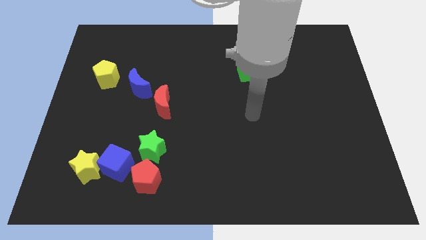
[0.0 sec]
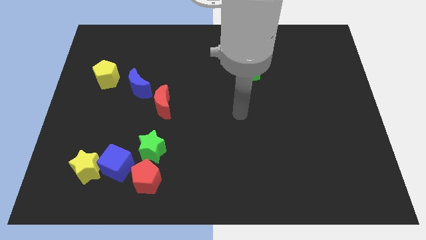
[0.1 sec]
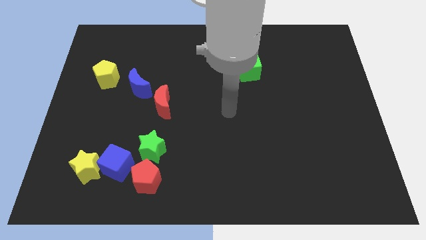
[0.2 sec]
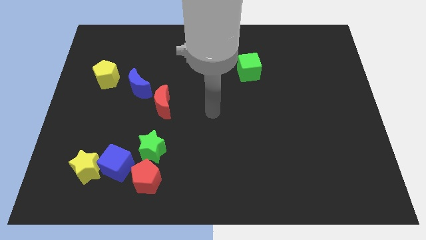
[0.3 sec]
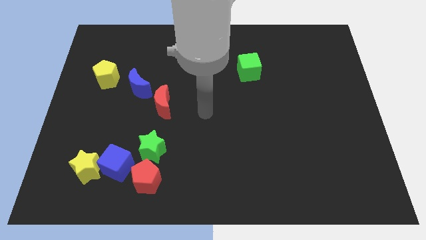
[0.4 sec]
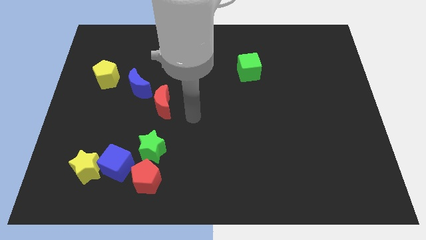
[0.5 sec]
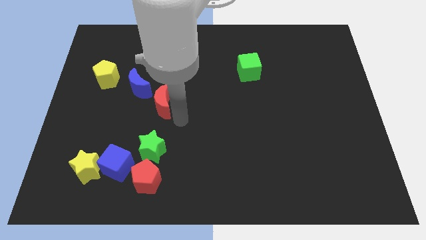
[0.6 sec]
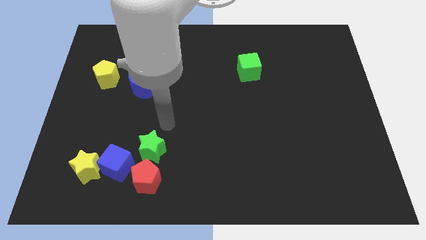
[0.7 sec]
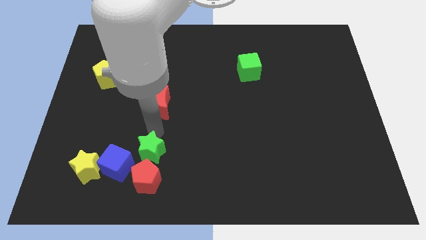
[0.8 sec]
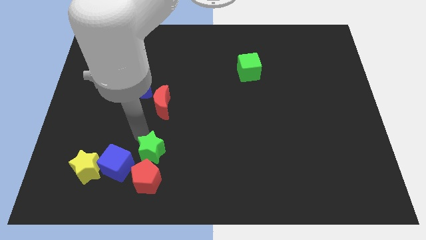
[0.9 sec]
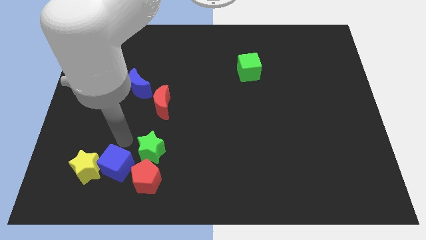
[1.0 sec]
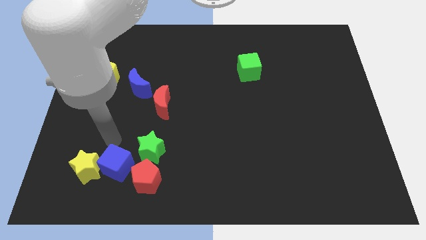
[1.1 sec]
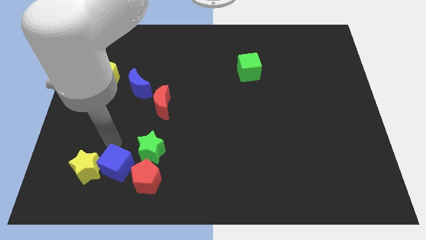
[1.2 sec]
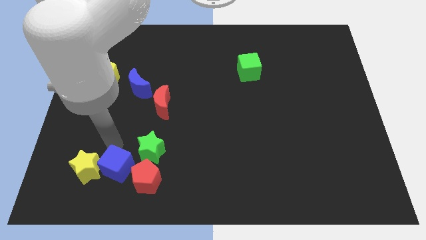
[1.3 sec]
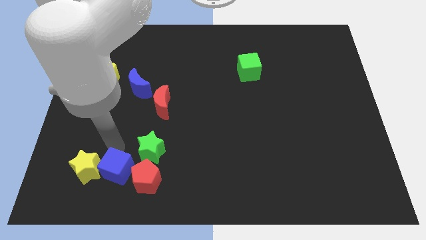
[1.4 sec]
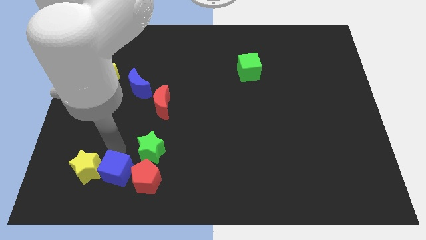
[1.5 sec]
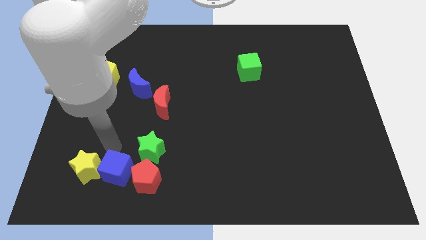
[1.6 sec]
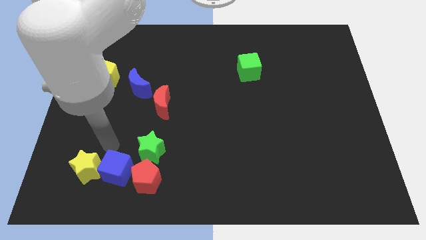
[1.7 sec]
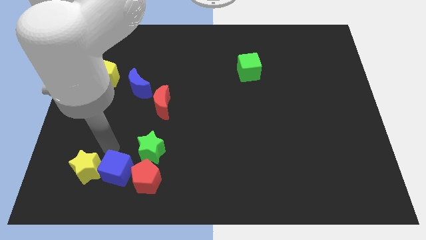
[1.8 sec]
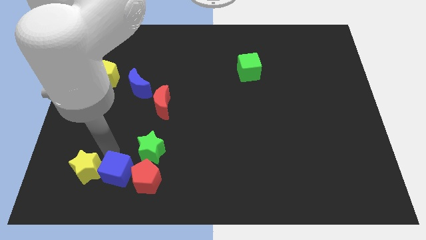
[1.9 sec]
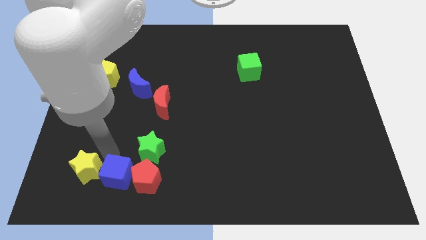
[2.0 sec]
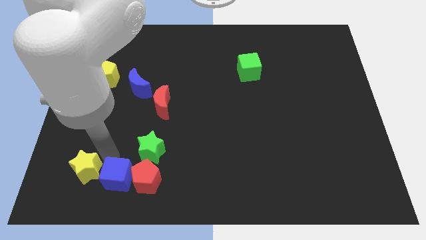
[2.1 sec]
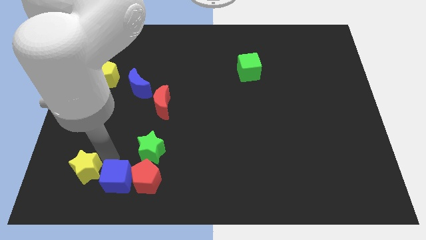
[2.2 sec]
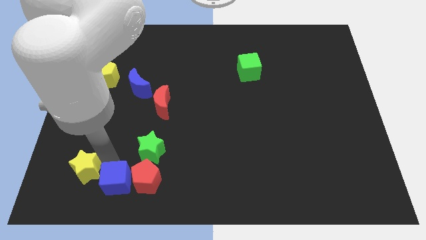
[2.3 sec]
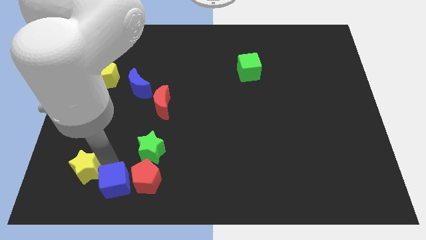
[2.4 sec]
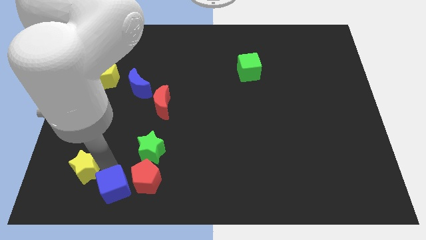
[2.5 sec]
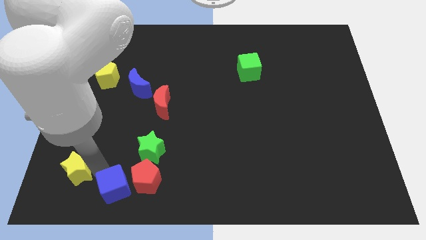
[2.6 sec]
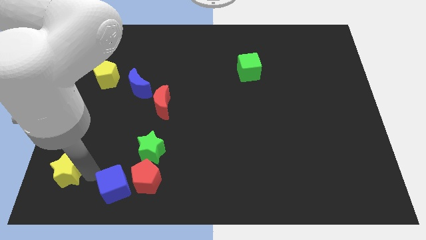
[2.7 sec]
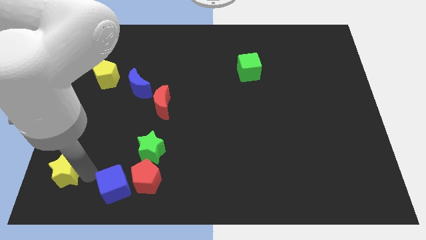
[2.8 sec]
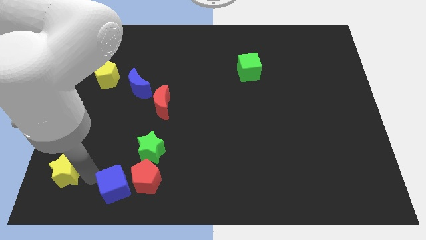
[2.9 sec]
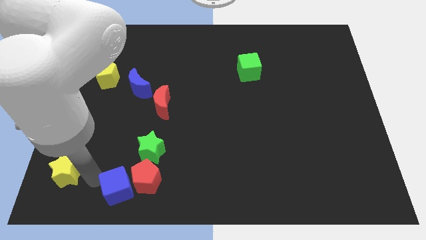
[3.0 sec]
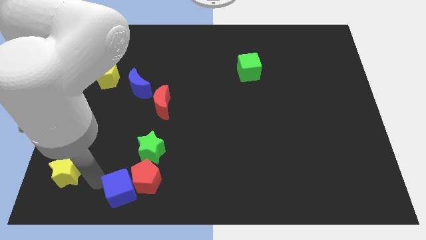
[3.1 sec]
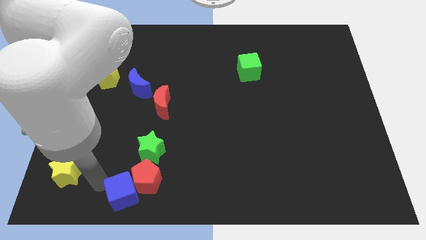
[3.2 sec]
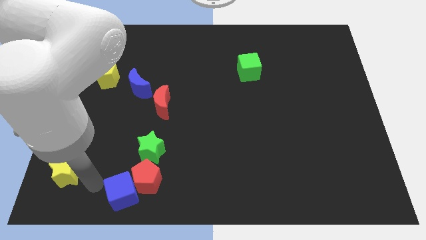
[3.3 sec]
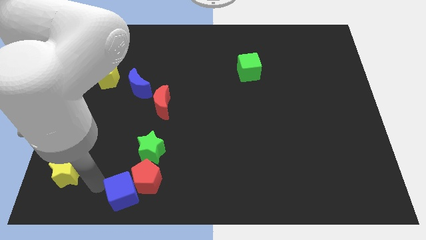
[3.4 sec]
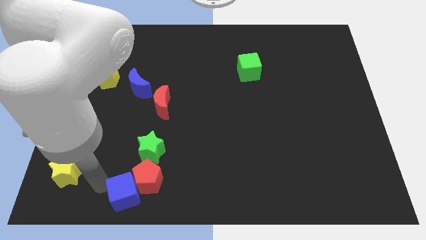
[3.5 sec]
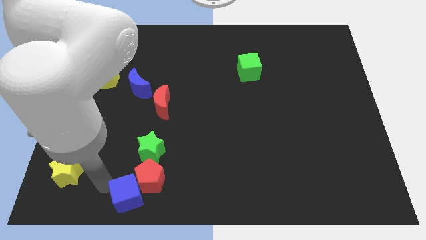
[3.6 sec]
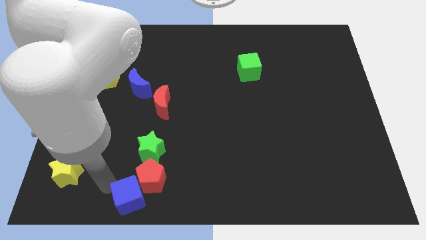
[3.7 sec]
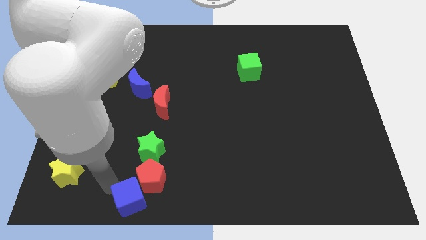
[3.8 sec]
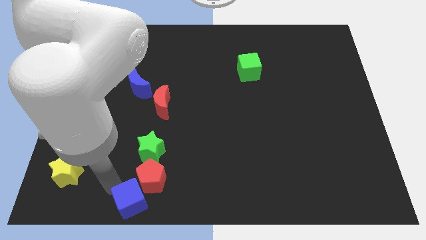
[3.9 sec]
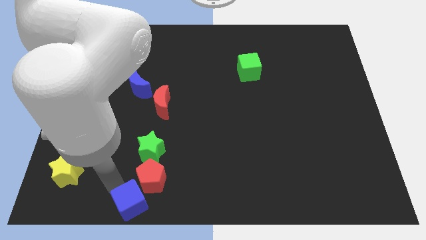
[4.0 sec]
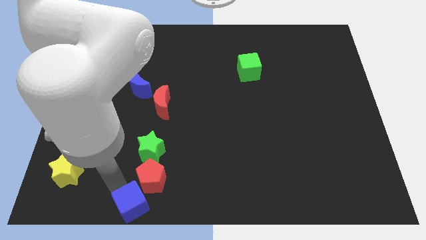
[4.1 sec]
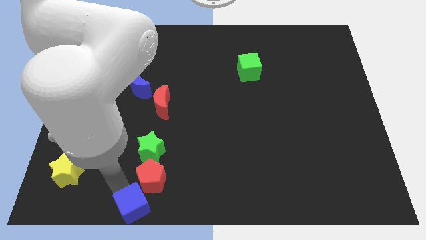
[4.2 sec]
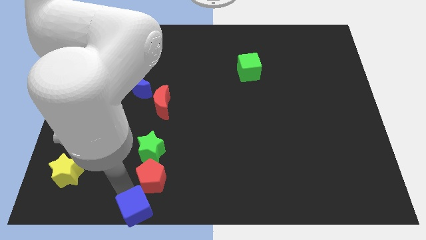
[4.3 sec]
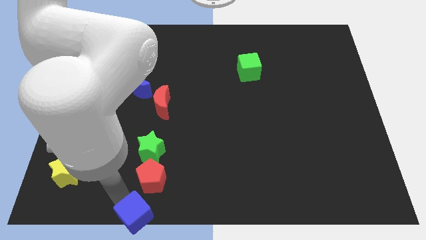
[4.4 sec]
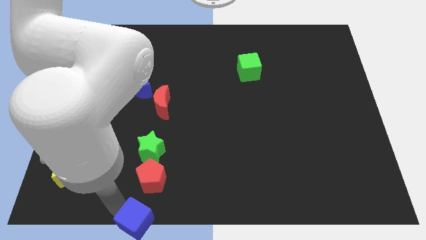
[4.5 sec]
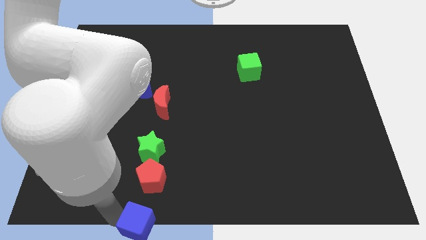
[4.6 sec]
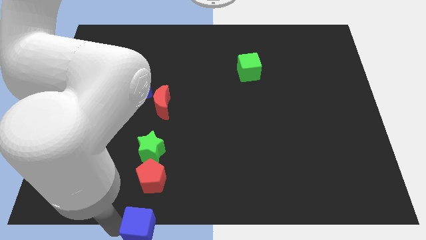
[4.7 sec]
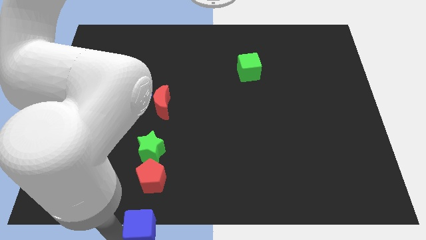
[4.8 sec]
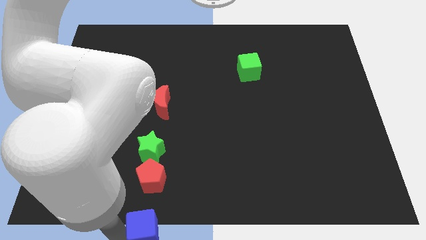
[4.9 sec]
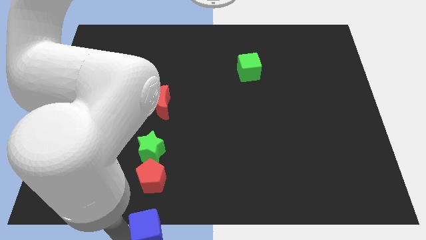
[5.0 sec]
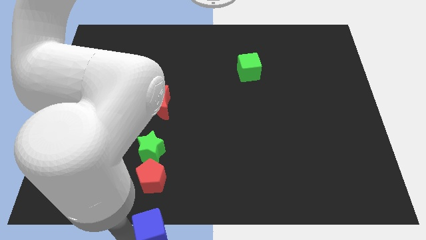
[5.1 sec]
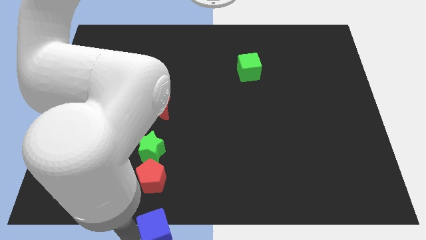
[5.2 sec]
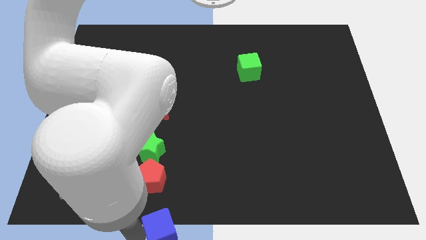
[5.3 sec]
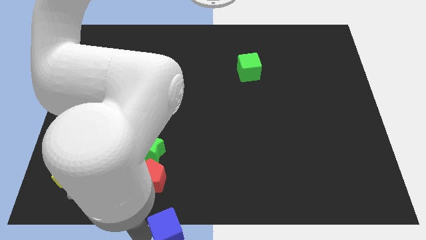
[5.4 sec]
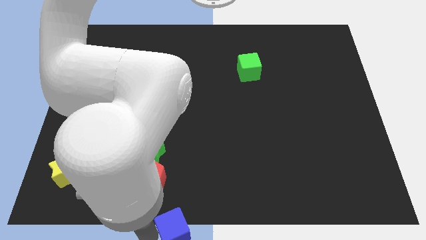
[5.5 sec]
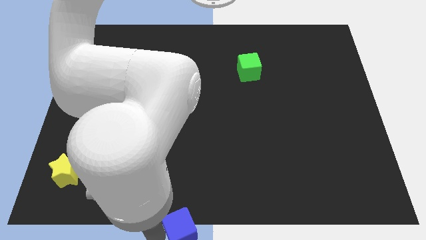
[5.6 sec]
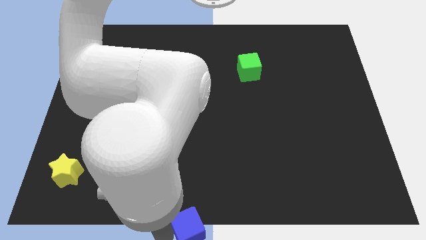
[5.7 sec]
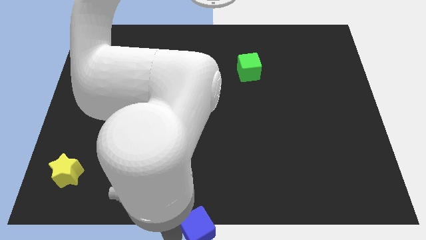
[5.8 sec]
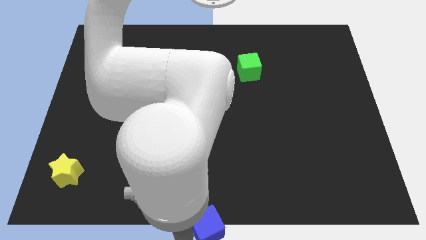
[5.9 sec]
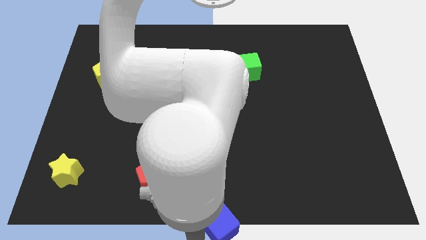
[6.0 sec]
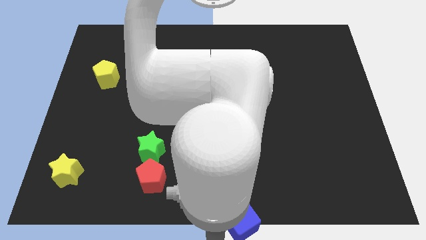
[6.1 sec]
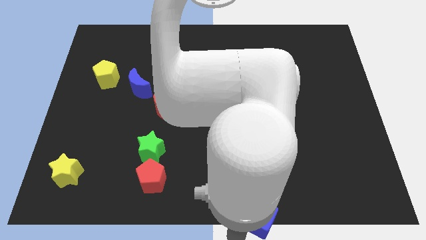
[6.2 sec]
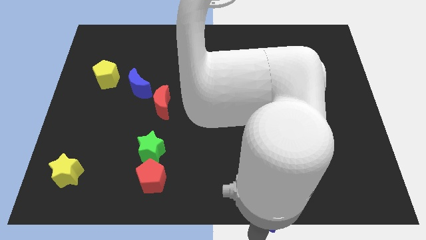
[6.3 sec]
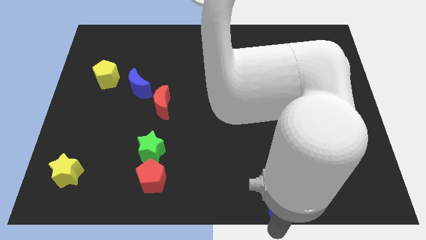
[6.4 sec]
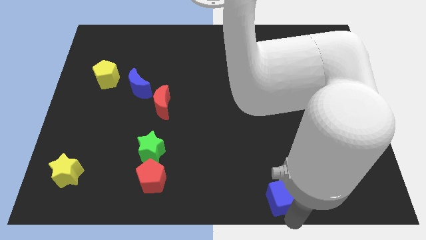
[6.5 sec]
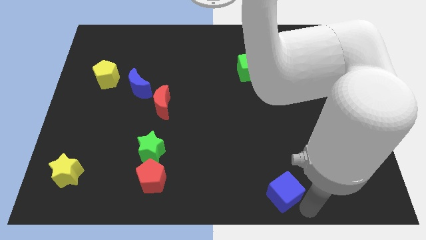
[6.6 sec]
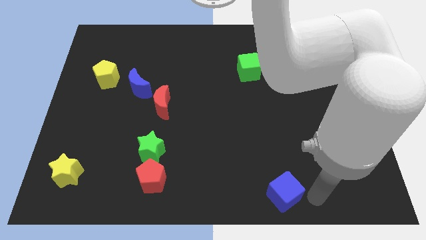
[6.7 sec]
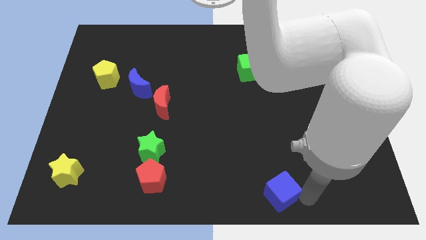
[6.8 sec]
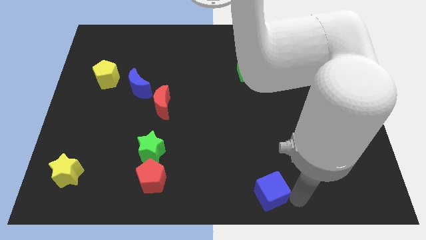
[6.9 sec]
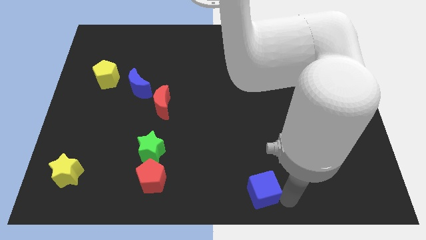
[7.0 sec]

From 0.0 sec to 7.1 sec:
slightly slide the blue cube right

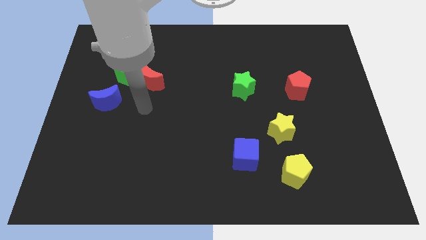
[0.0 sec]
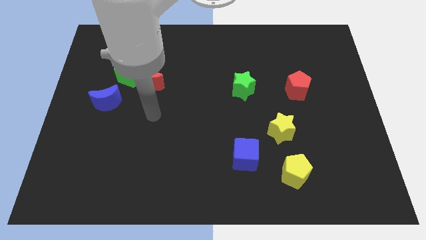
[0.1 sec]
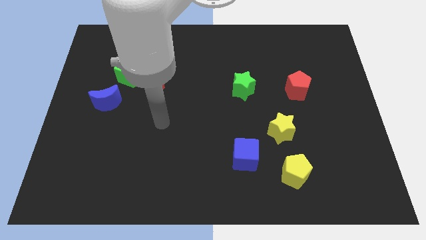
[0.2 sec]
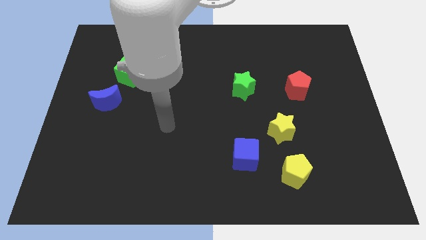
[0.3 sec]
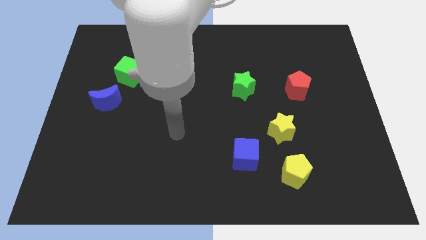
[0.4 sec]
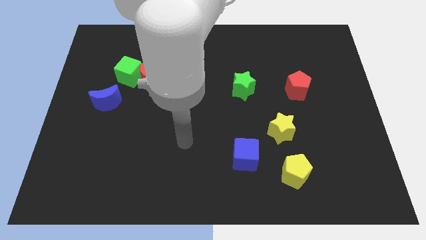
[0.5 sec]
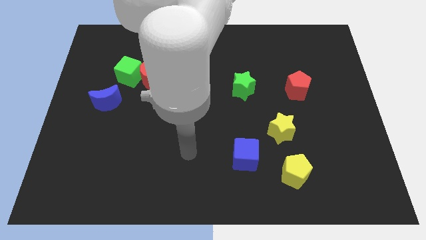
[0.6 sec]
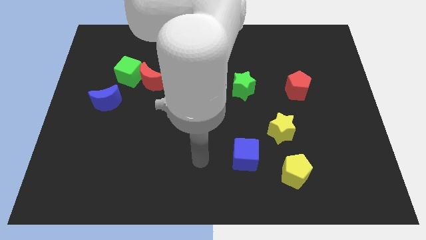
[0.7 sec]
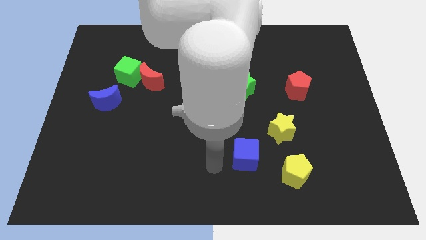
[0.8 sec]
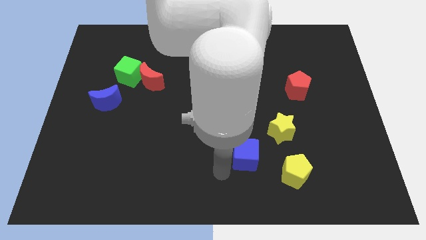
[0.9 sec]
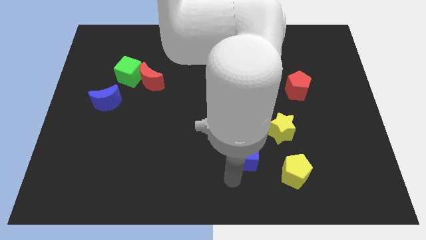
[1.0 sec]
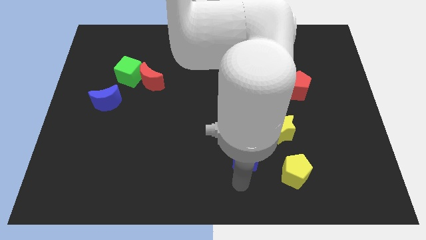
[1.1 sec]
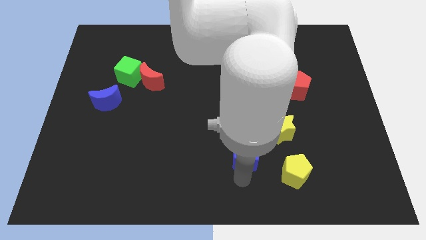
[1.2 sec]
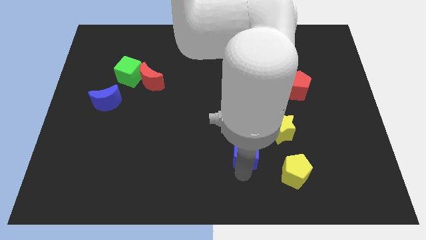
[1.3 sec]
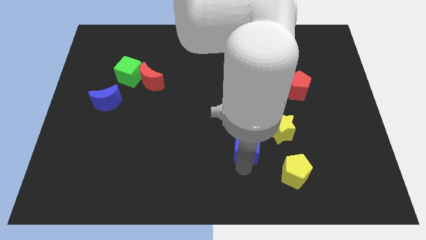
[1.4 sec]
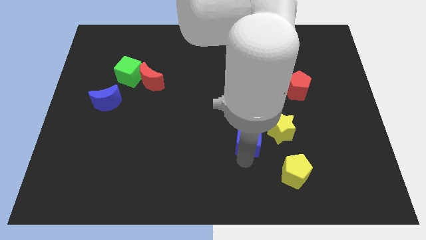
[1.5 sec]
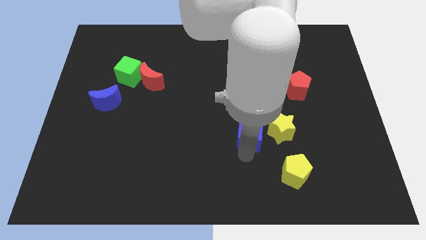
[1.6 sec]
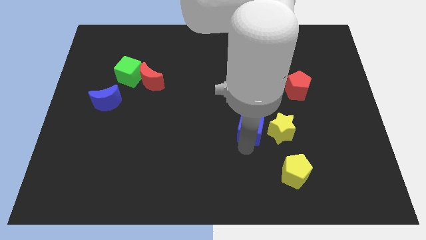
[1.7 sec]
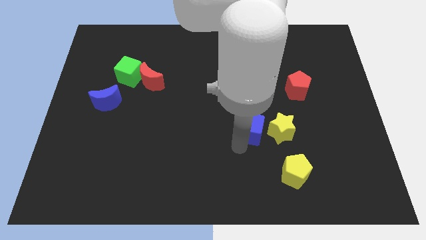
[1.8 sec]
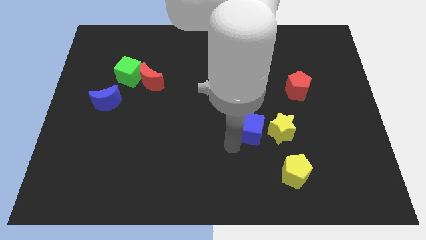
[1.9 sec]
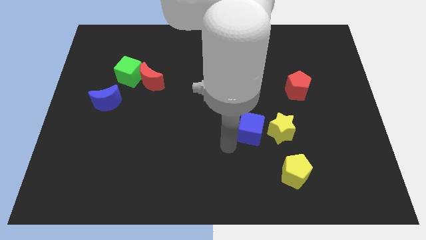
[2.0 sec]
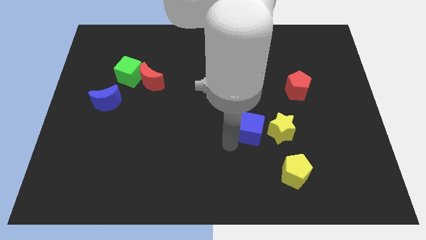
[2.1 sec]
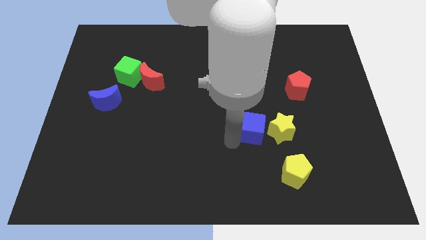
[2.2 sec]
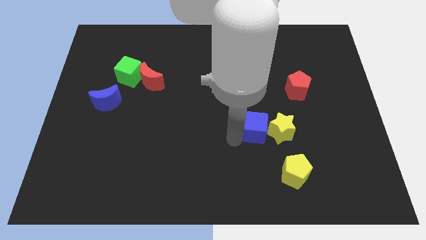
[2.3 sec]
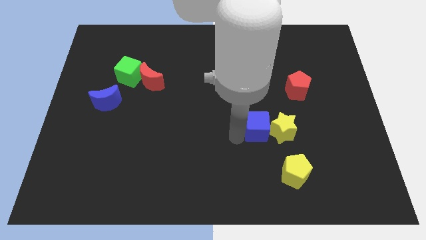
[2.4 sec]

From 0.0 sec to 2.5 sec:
move the blue cube diagonally up and right a little bit
